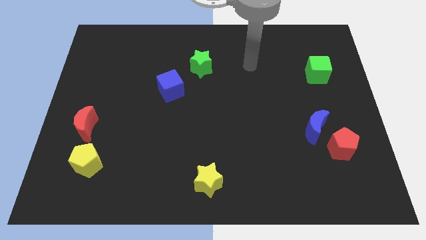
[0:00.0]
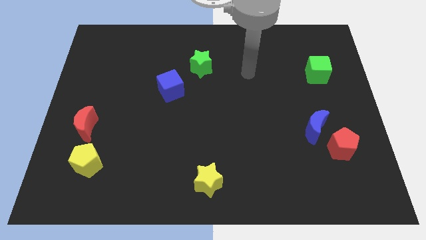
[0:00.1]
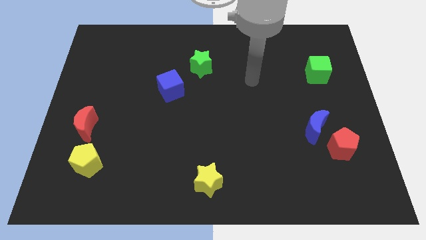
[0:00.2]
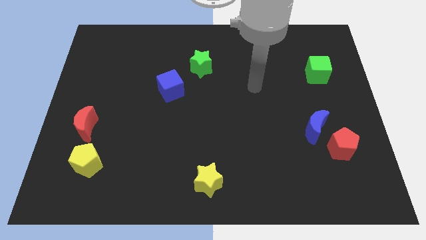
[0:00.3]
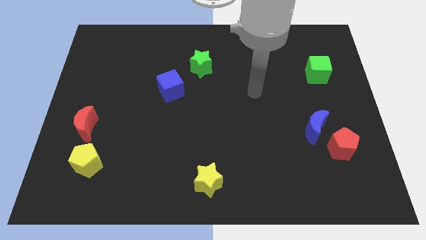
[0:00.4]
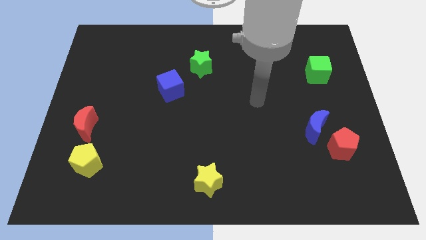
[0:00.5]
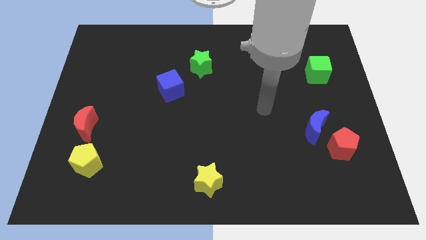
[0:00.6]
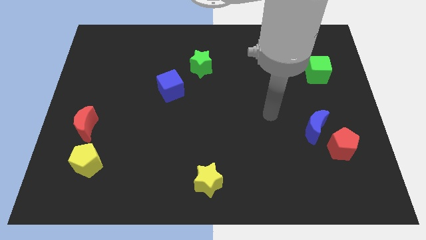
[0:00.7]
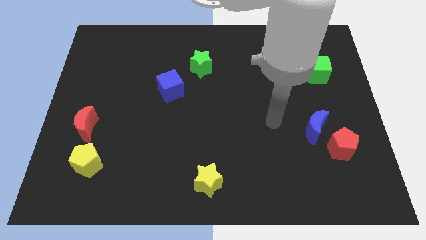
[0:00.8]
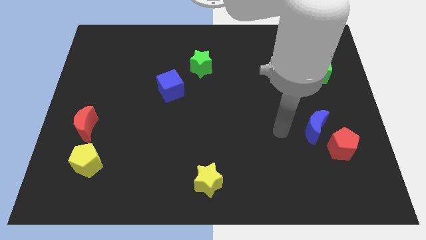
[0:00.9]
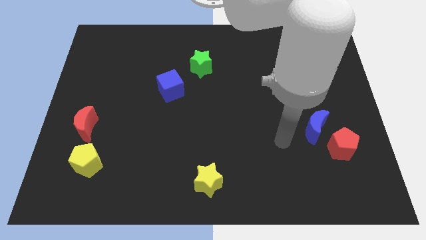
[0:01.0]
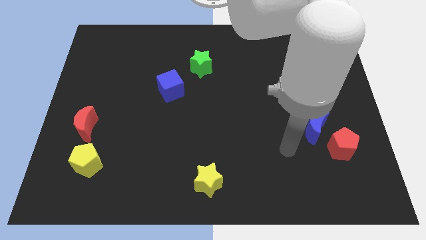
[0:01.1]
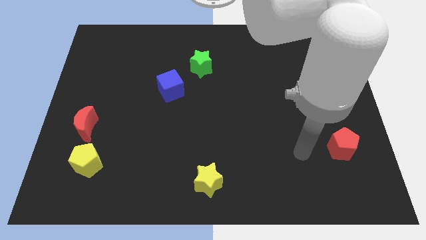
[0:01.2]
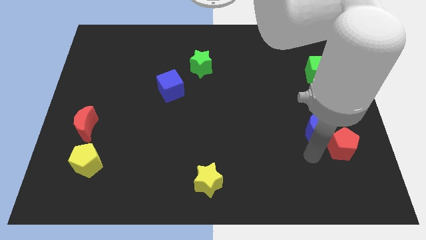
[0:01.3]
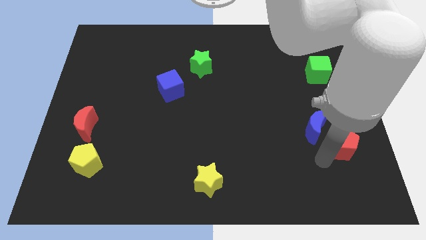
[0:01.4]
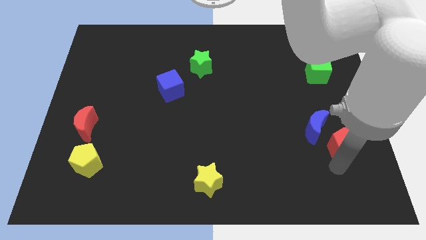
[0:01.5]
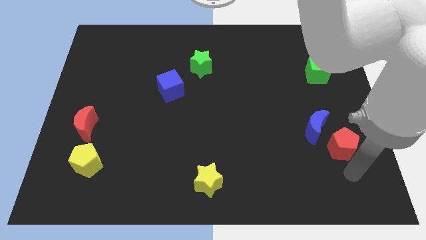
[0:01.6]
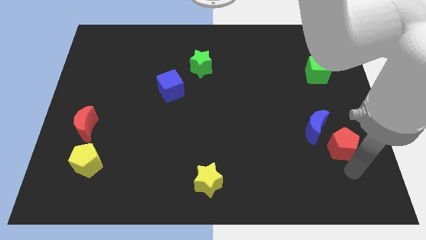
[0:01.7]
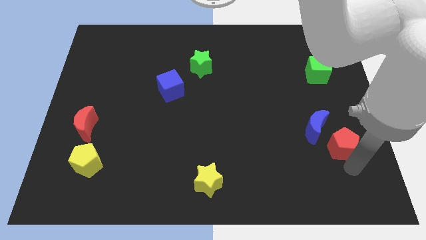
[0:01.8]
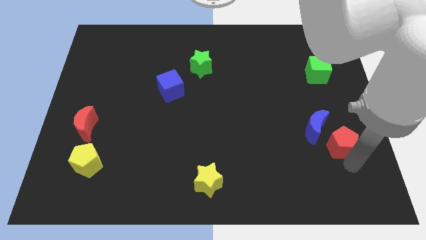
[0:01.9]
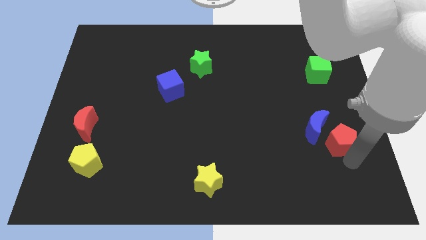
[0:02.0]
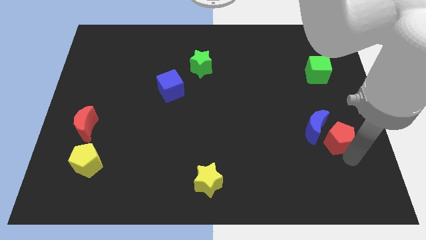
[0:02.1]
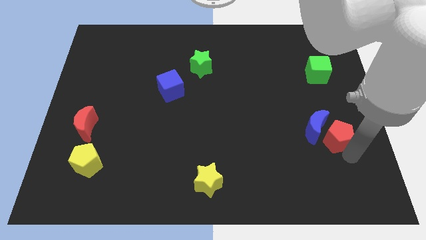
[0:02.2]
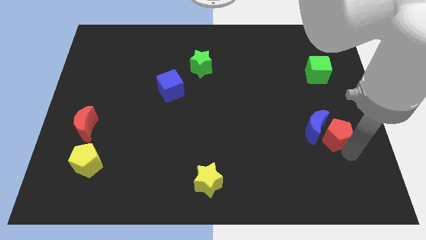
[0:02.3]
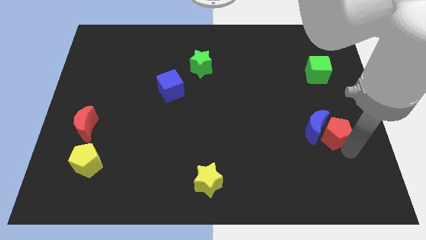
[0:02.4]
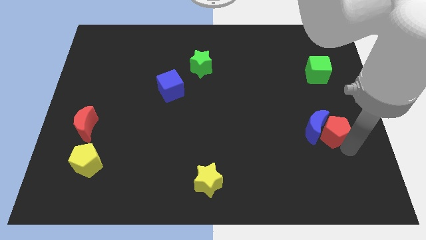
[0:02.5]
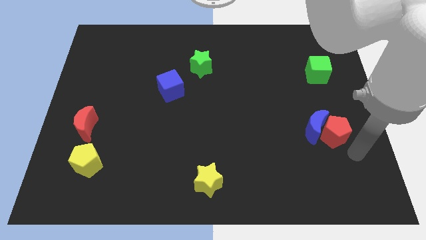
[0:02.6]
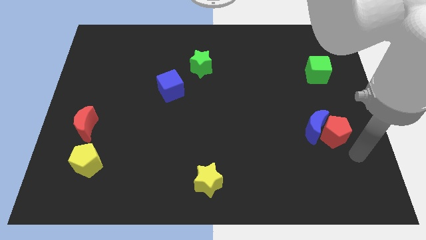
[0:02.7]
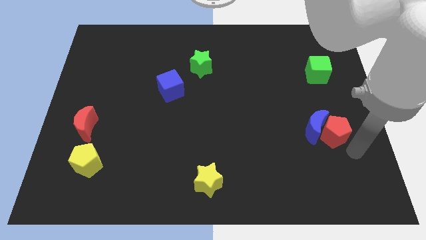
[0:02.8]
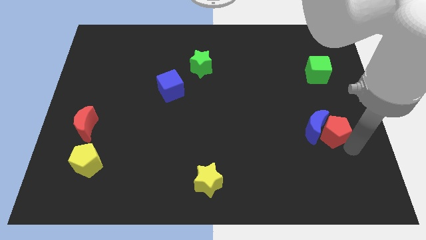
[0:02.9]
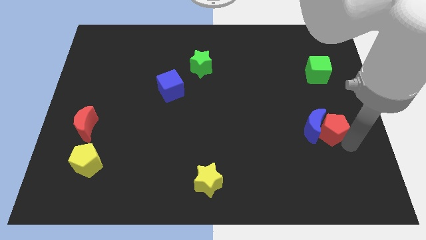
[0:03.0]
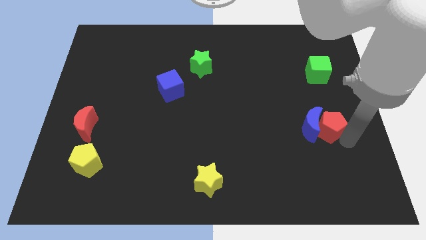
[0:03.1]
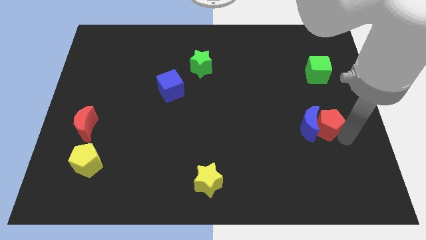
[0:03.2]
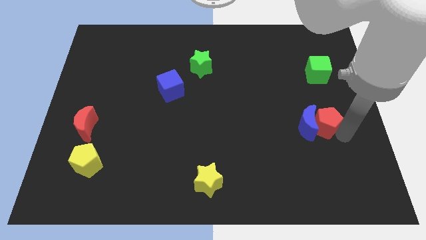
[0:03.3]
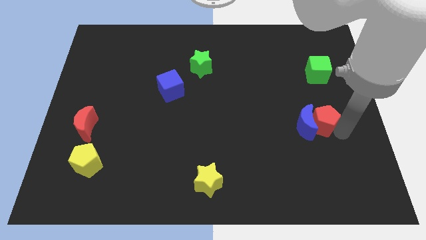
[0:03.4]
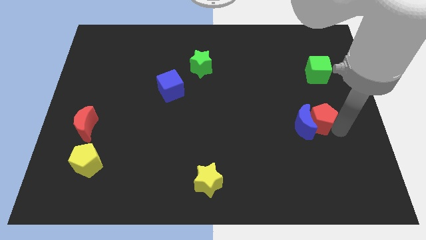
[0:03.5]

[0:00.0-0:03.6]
slightly move the red pentagon up and then to the left

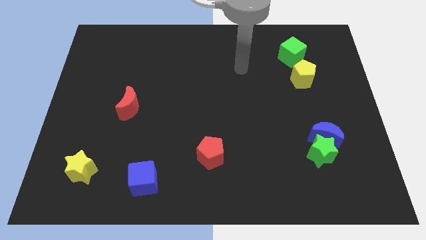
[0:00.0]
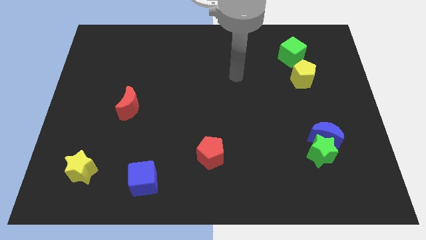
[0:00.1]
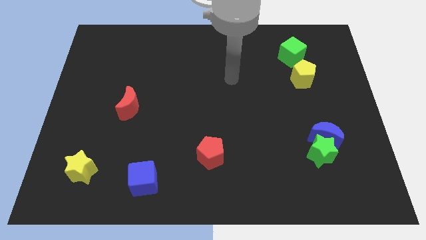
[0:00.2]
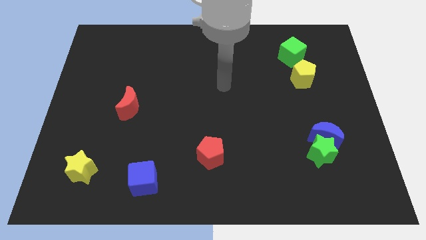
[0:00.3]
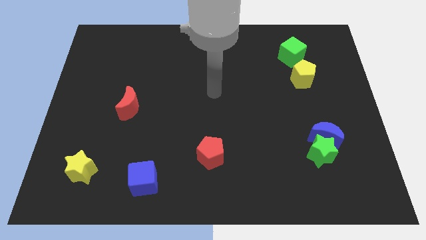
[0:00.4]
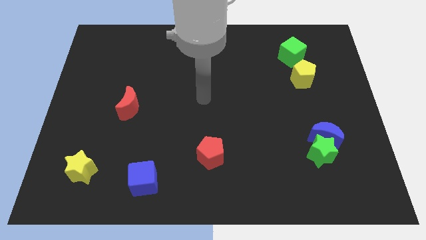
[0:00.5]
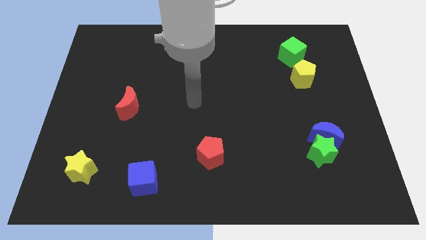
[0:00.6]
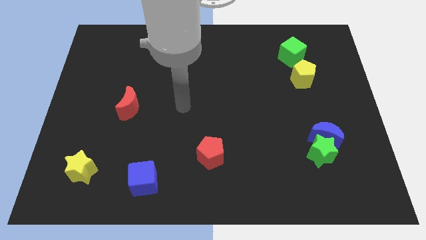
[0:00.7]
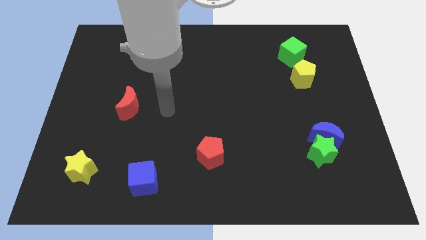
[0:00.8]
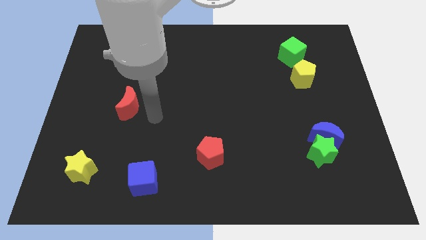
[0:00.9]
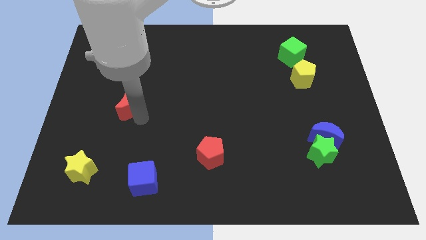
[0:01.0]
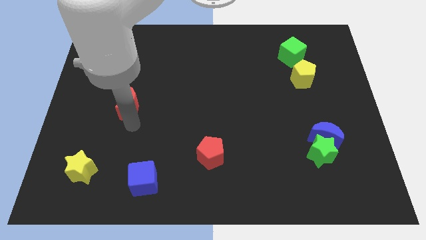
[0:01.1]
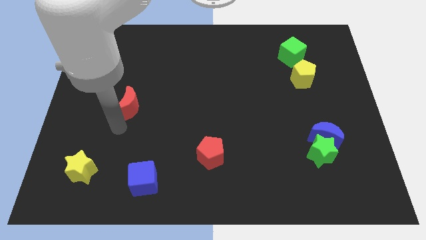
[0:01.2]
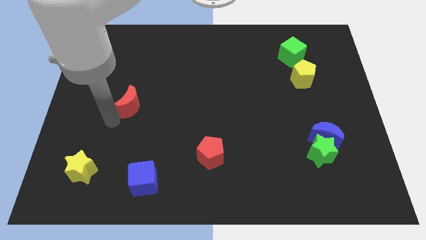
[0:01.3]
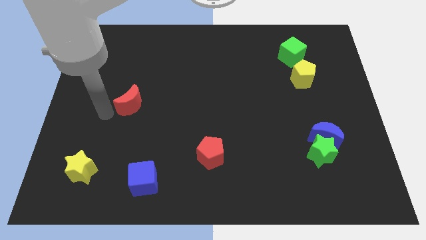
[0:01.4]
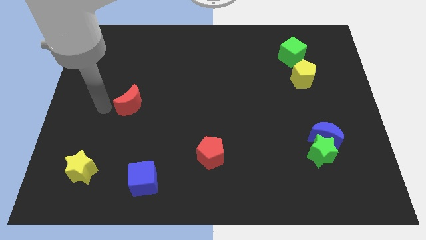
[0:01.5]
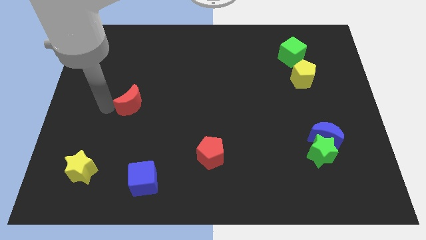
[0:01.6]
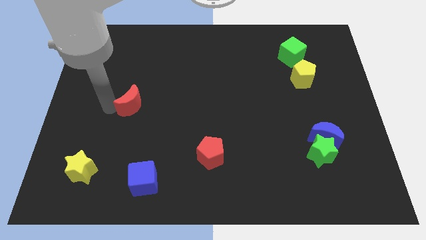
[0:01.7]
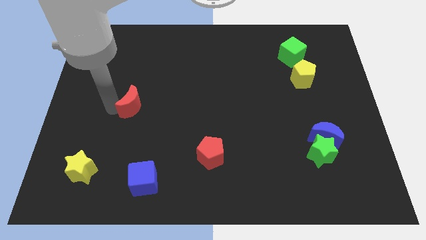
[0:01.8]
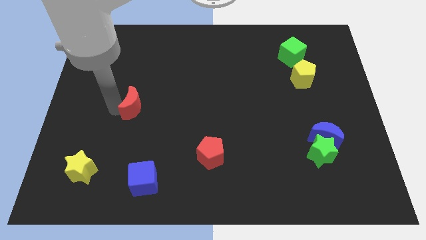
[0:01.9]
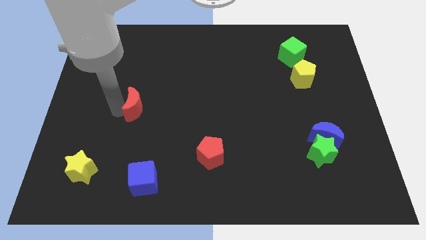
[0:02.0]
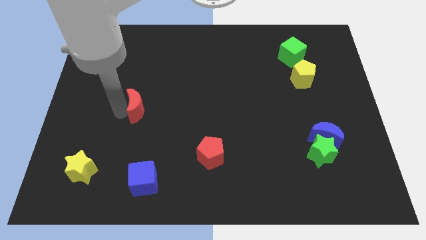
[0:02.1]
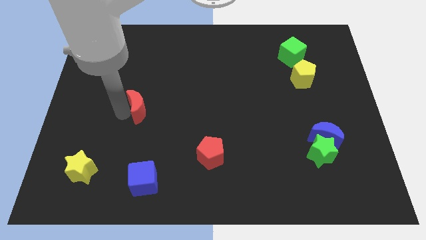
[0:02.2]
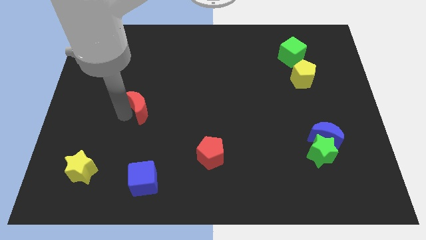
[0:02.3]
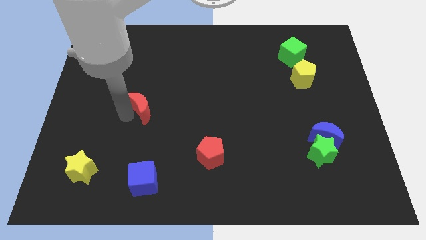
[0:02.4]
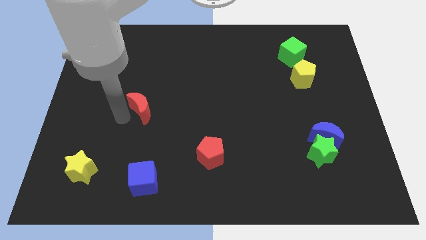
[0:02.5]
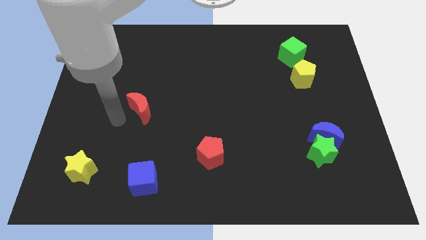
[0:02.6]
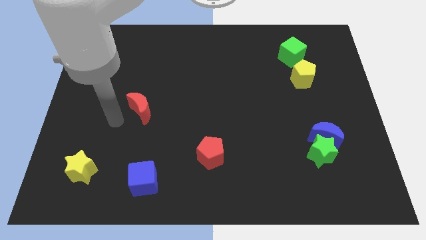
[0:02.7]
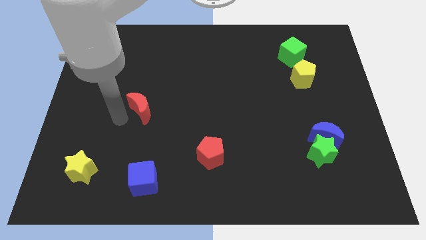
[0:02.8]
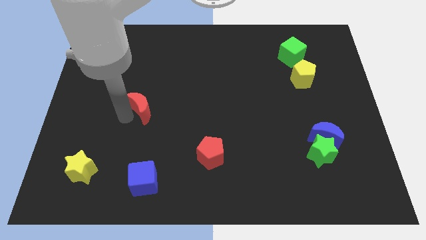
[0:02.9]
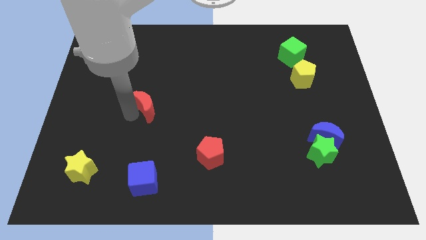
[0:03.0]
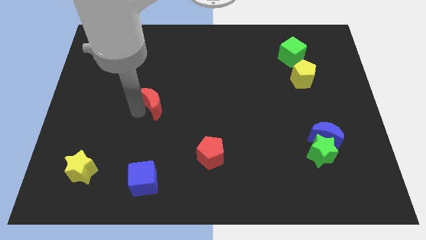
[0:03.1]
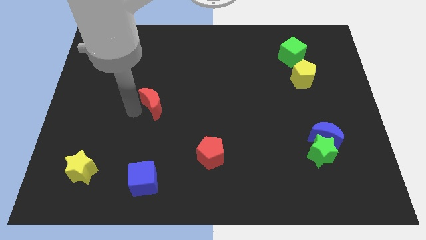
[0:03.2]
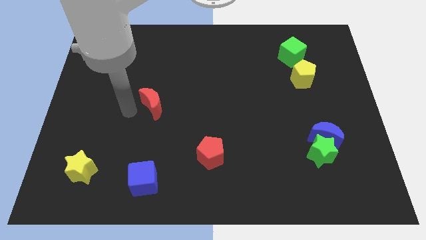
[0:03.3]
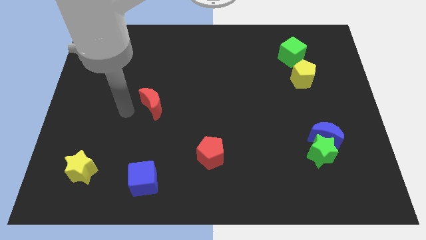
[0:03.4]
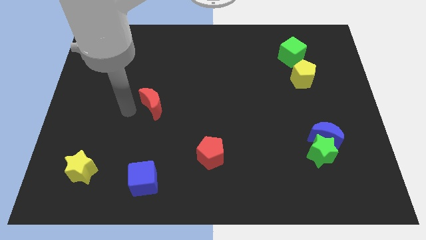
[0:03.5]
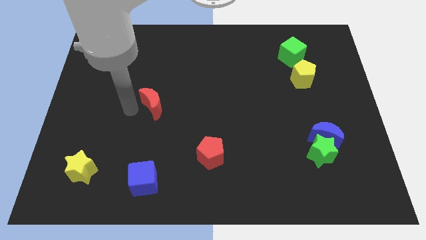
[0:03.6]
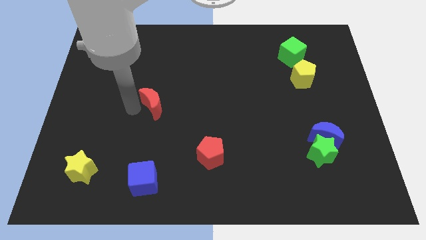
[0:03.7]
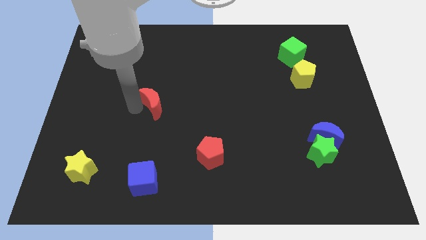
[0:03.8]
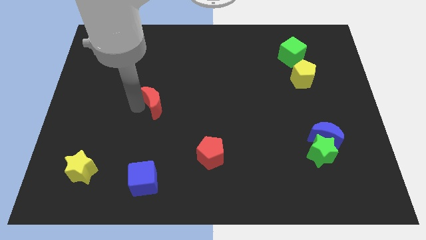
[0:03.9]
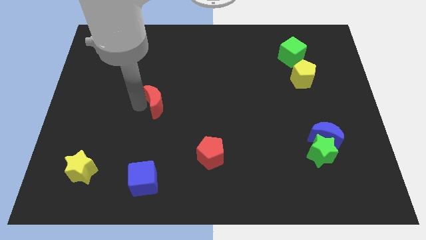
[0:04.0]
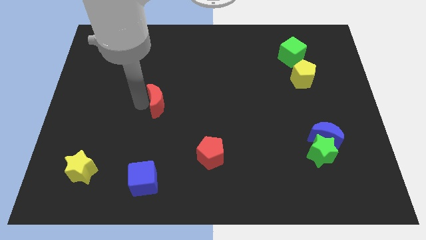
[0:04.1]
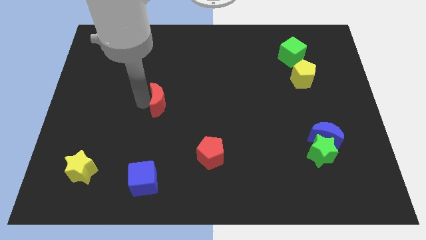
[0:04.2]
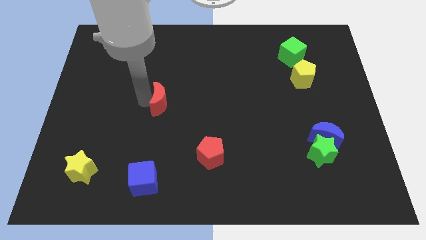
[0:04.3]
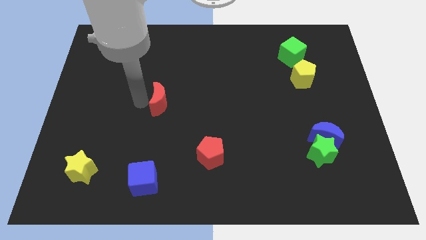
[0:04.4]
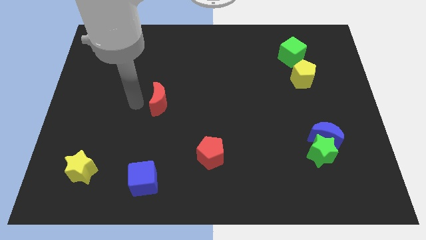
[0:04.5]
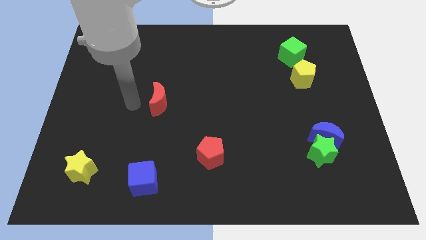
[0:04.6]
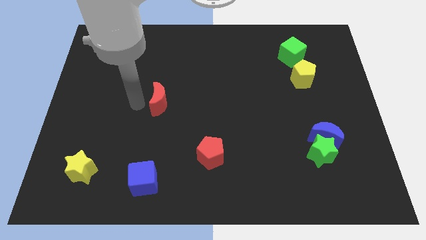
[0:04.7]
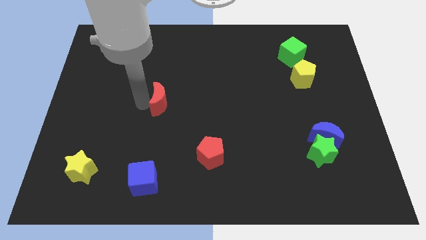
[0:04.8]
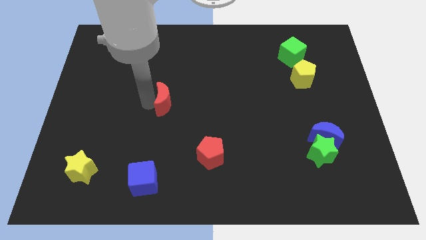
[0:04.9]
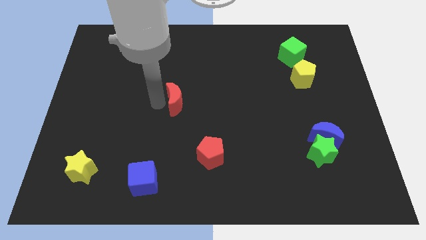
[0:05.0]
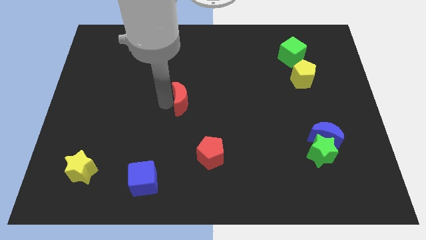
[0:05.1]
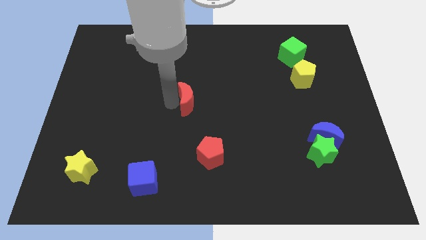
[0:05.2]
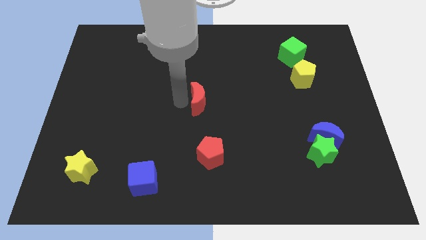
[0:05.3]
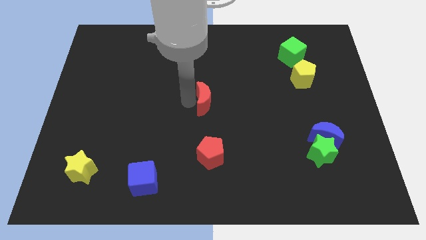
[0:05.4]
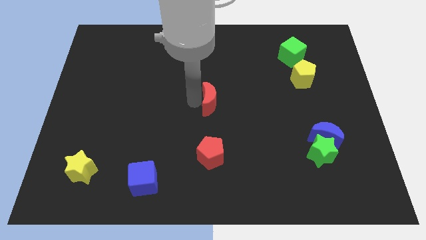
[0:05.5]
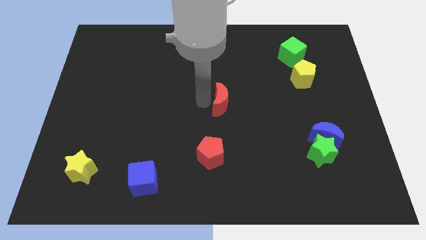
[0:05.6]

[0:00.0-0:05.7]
push the red moon to the right
